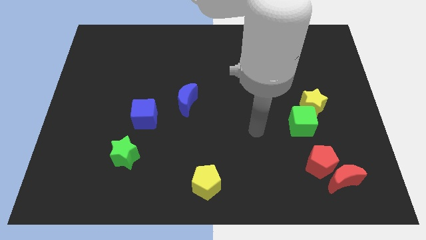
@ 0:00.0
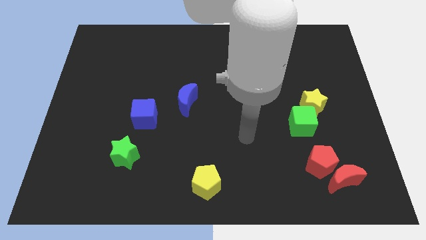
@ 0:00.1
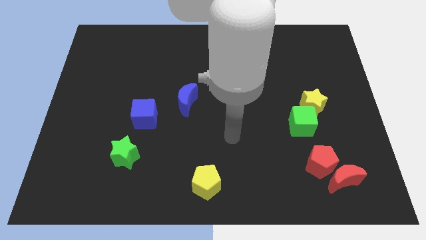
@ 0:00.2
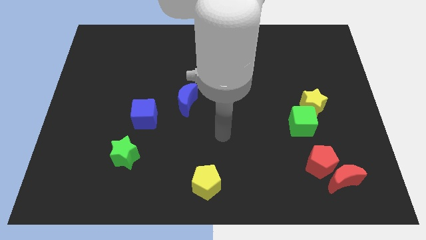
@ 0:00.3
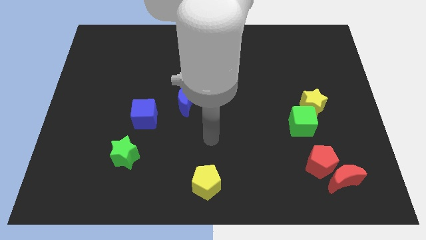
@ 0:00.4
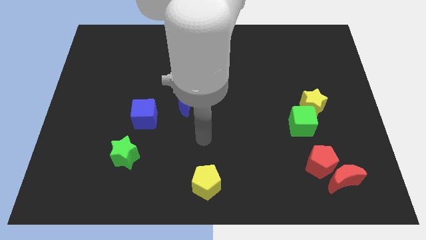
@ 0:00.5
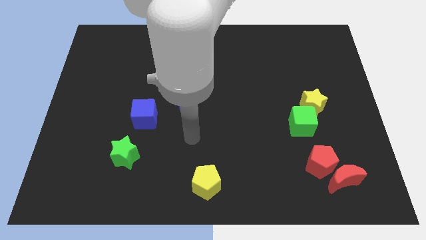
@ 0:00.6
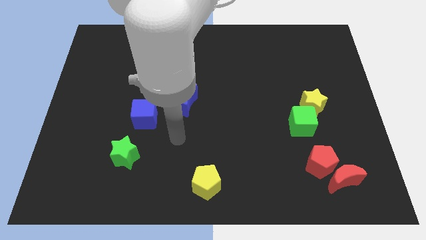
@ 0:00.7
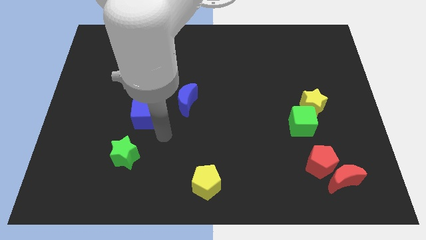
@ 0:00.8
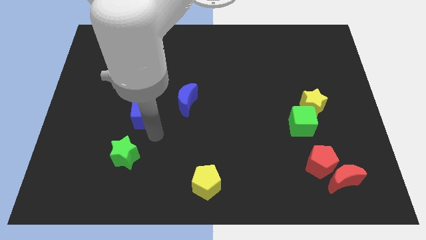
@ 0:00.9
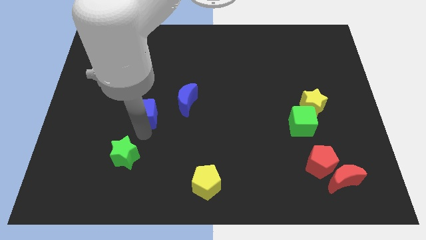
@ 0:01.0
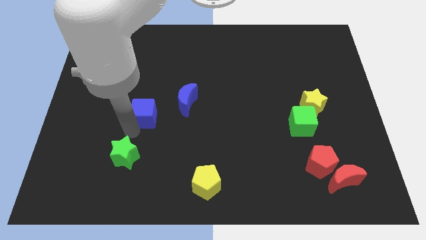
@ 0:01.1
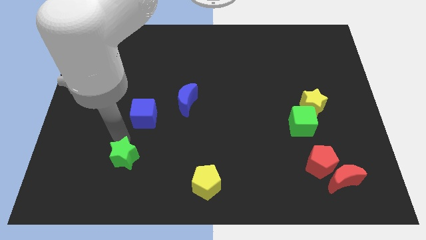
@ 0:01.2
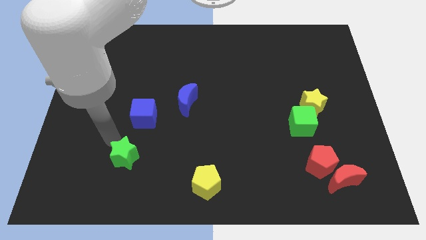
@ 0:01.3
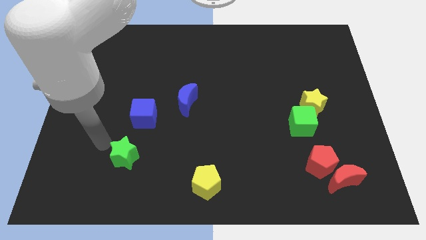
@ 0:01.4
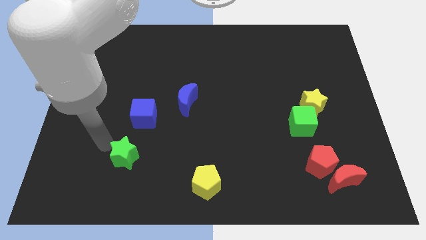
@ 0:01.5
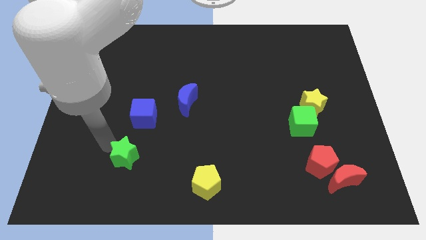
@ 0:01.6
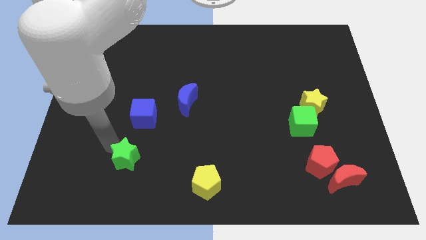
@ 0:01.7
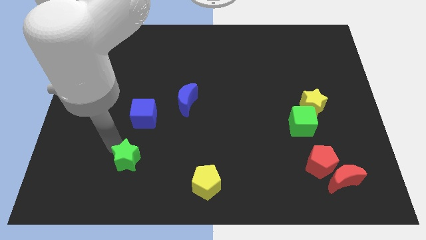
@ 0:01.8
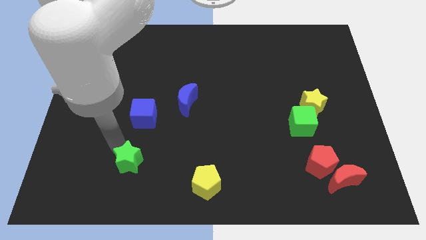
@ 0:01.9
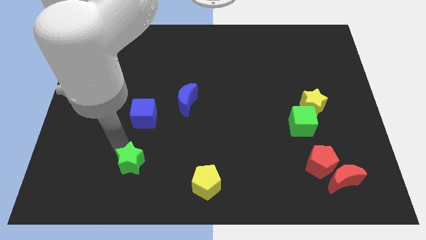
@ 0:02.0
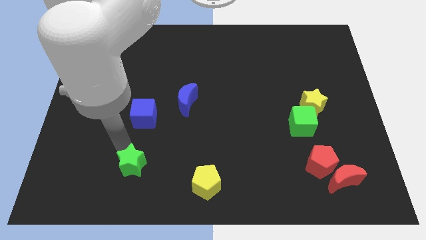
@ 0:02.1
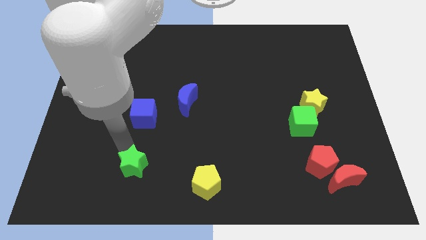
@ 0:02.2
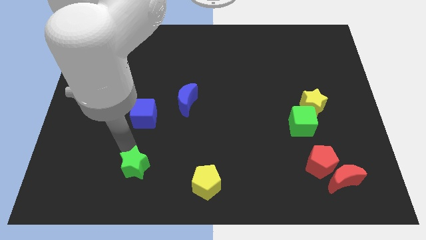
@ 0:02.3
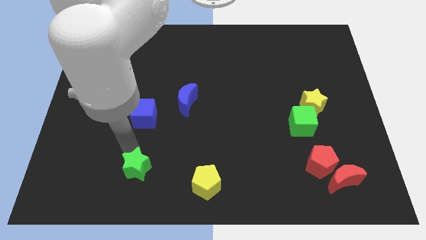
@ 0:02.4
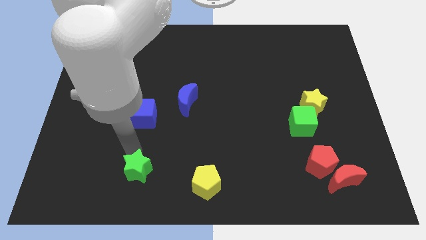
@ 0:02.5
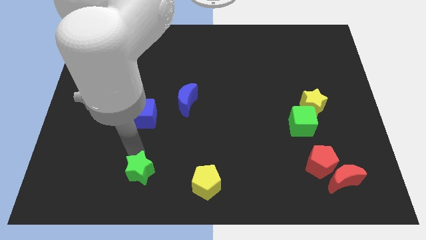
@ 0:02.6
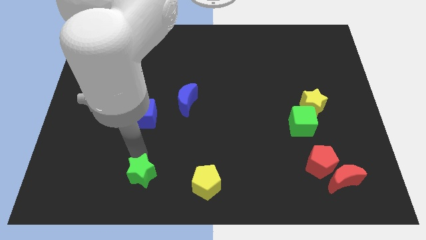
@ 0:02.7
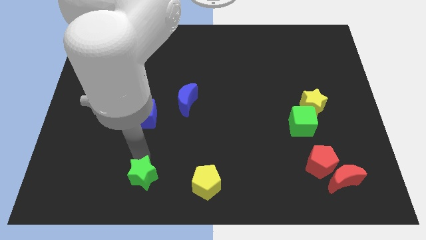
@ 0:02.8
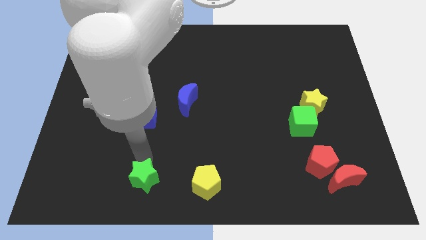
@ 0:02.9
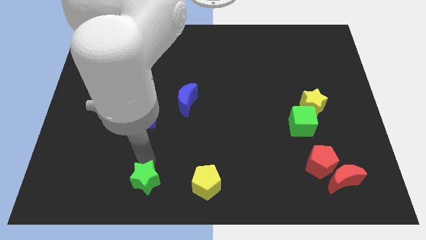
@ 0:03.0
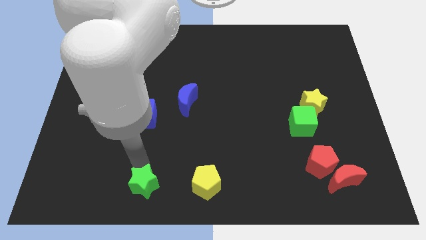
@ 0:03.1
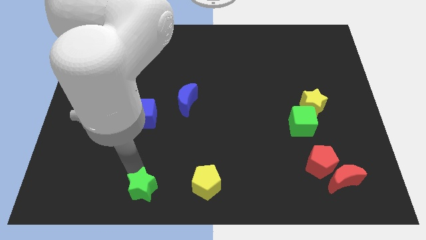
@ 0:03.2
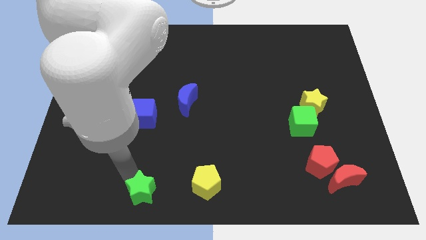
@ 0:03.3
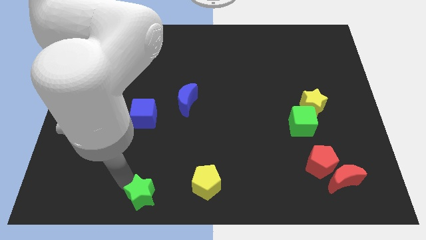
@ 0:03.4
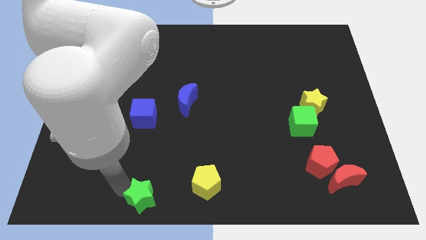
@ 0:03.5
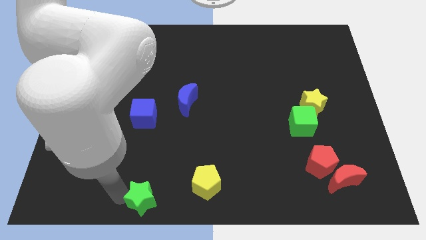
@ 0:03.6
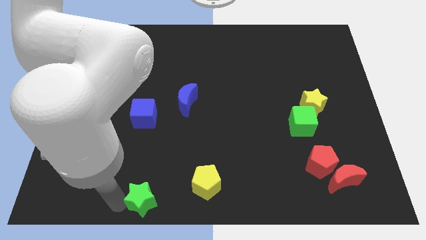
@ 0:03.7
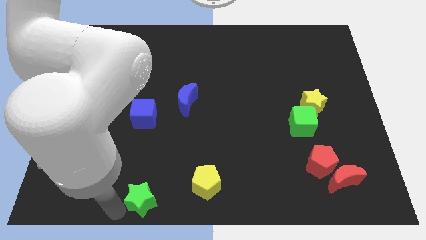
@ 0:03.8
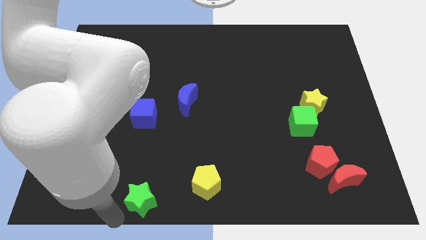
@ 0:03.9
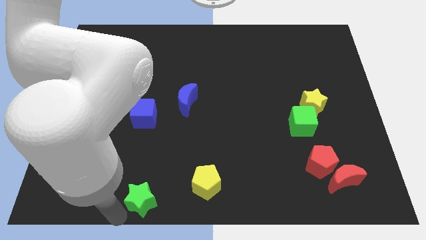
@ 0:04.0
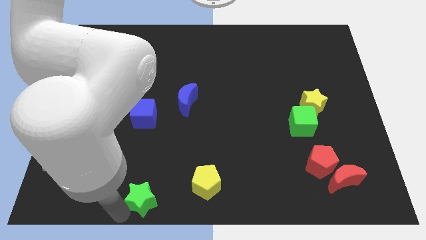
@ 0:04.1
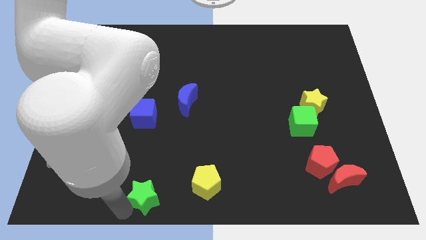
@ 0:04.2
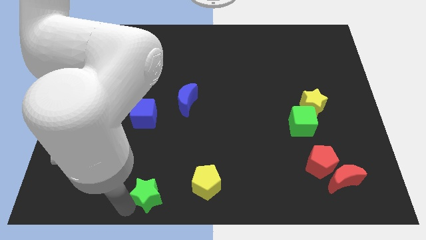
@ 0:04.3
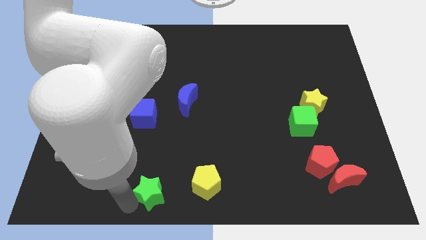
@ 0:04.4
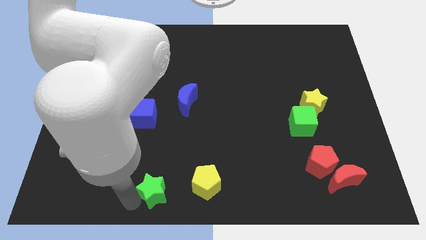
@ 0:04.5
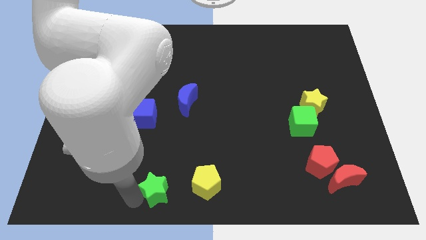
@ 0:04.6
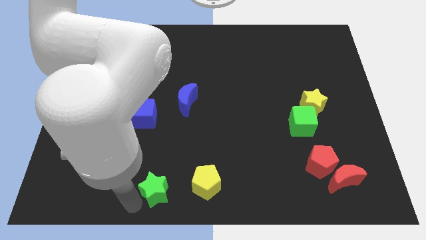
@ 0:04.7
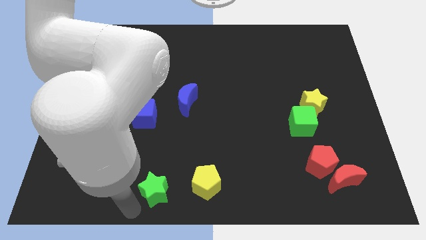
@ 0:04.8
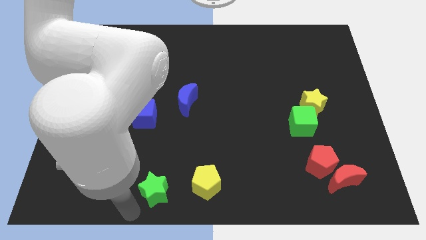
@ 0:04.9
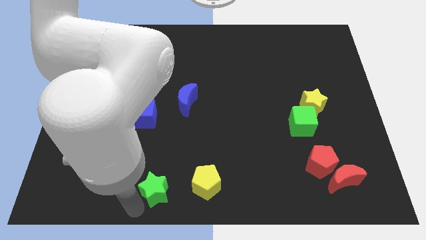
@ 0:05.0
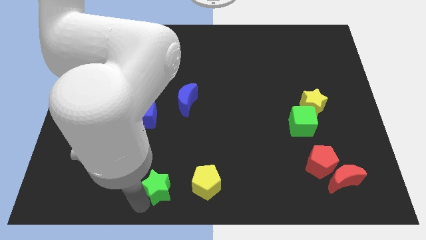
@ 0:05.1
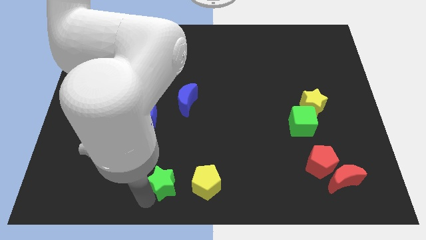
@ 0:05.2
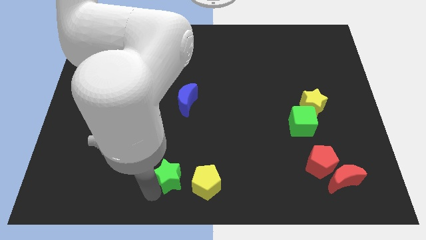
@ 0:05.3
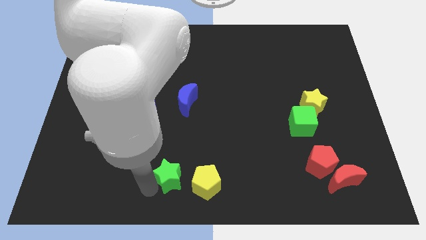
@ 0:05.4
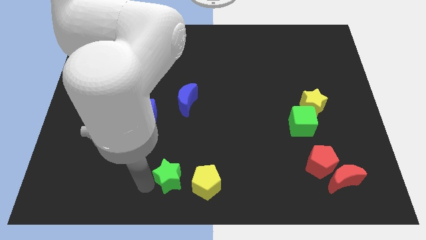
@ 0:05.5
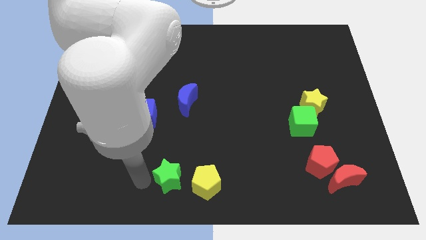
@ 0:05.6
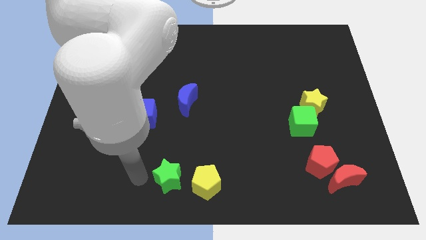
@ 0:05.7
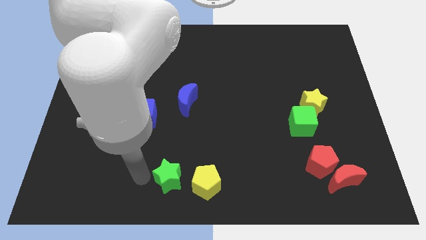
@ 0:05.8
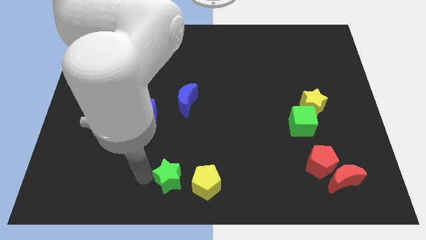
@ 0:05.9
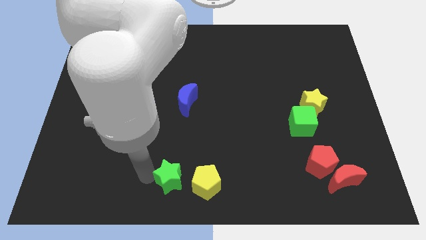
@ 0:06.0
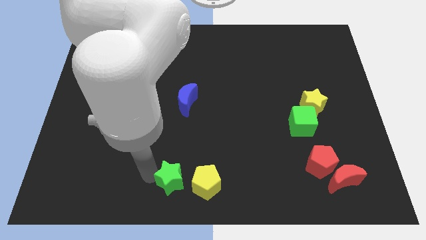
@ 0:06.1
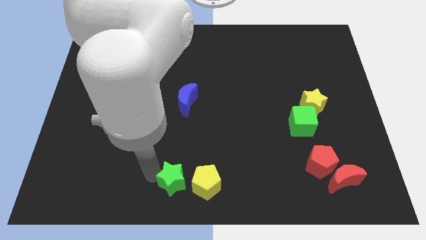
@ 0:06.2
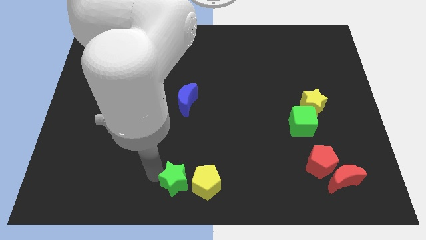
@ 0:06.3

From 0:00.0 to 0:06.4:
put the green star next to the yellow pentagon

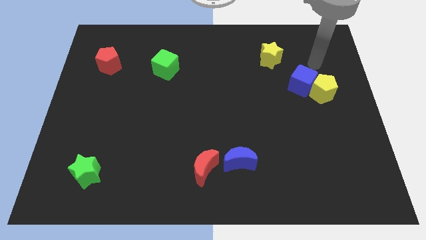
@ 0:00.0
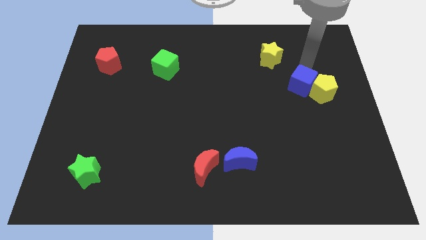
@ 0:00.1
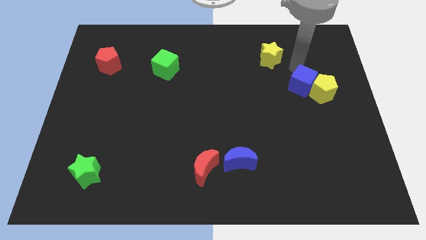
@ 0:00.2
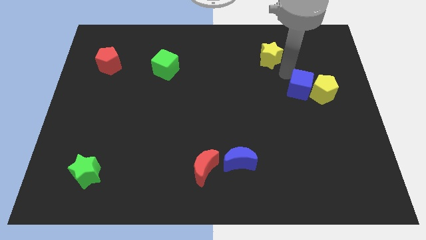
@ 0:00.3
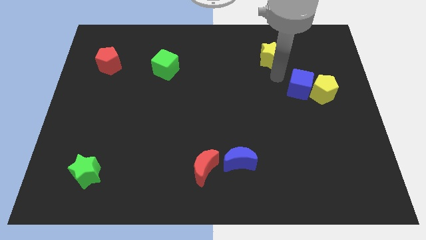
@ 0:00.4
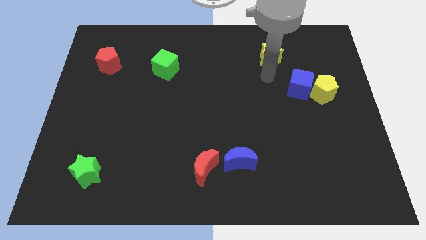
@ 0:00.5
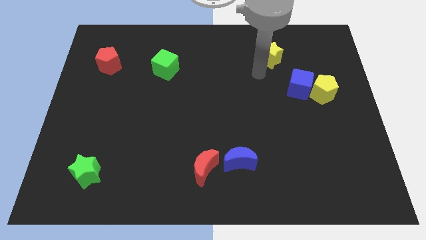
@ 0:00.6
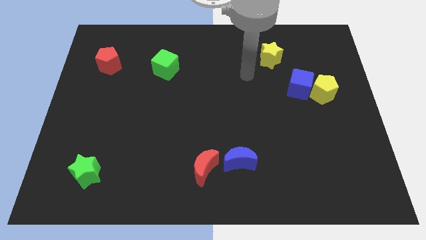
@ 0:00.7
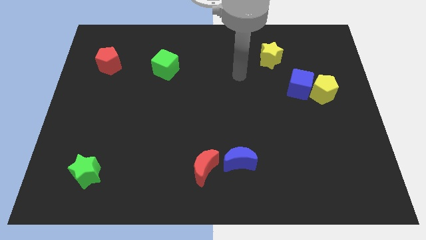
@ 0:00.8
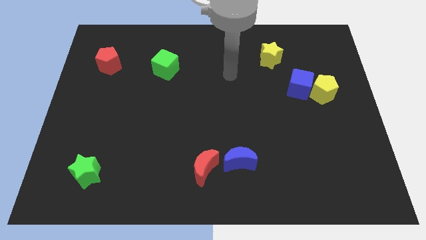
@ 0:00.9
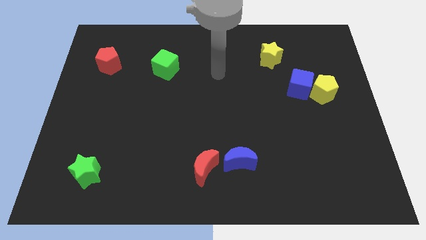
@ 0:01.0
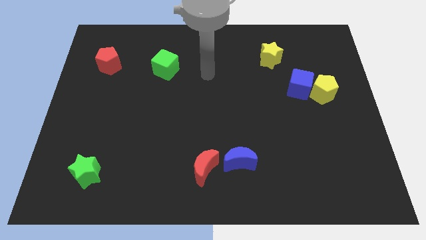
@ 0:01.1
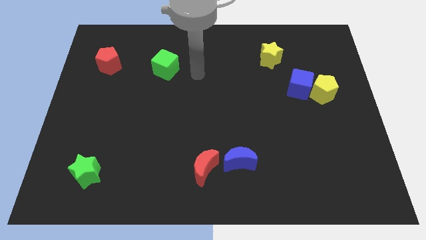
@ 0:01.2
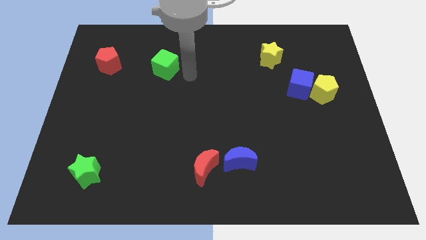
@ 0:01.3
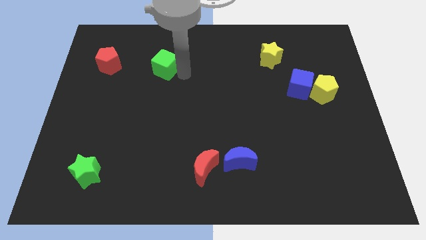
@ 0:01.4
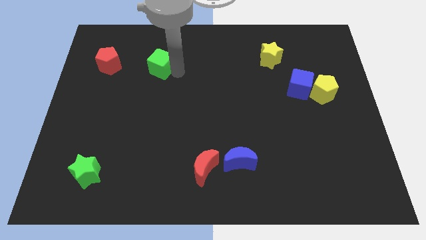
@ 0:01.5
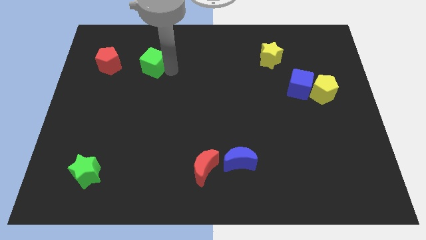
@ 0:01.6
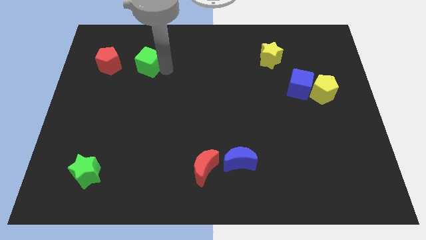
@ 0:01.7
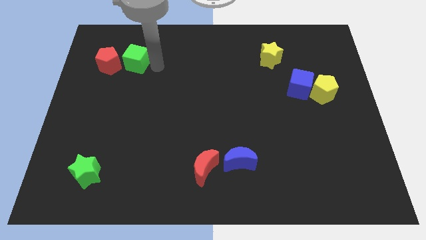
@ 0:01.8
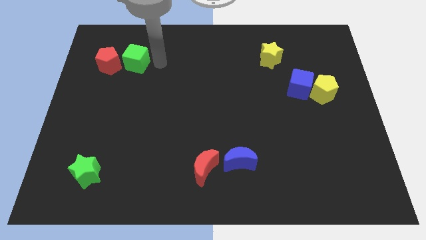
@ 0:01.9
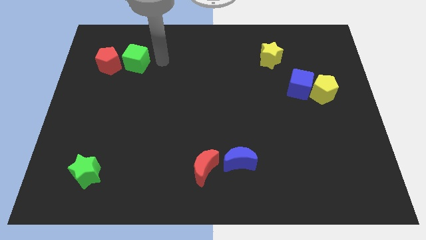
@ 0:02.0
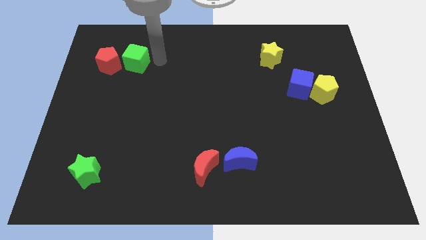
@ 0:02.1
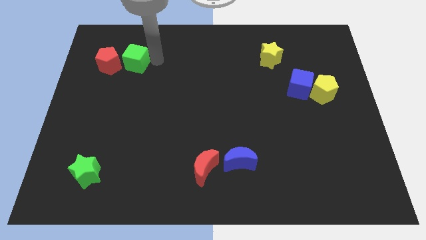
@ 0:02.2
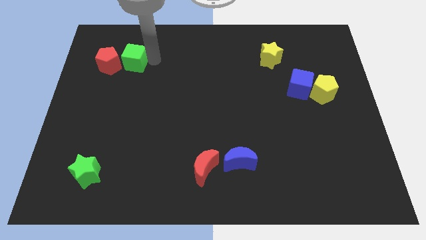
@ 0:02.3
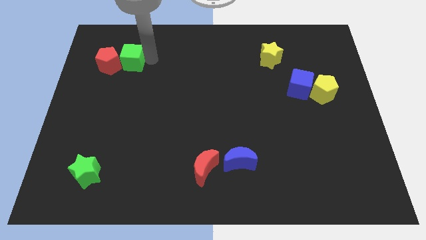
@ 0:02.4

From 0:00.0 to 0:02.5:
push the green cube towards the red pentagon
